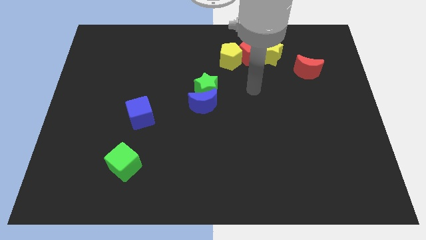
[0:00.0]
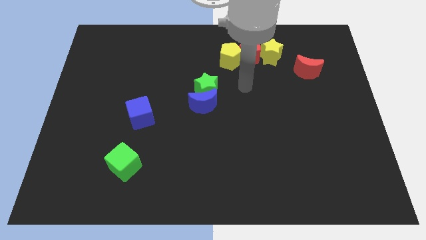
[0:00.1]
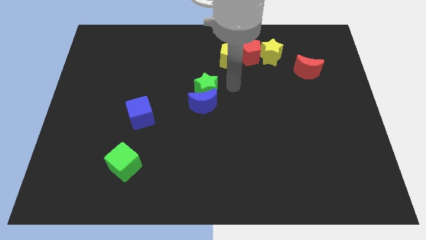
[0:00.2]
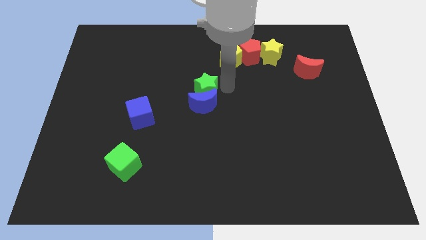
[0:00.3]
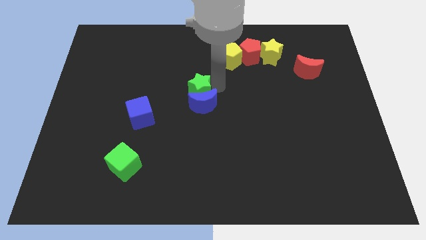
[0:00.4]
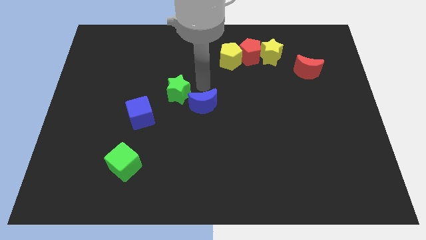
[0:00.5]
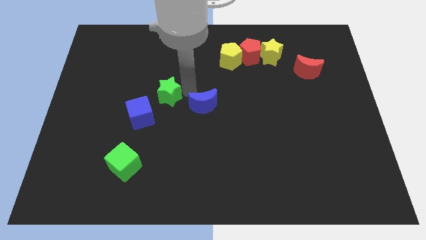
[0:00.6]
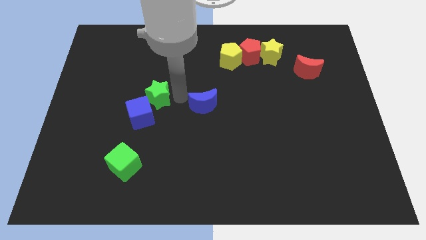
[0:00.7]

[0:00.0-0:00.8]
separate the blue moon from the green star

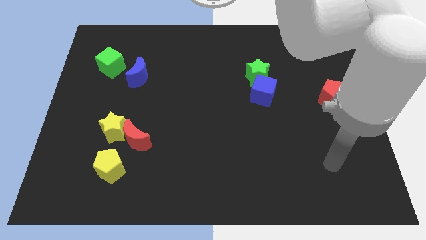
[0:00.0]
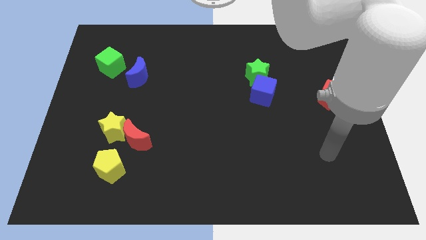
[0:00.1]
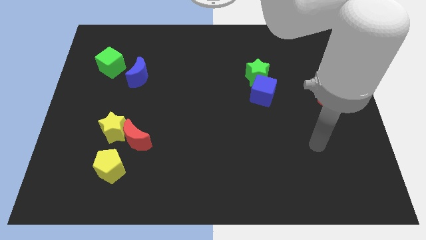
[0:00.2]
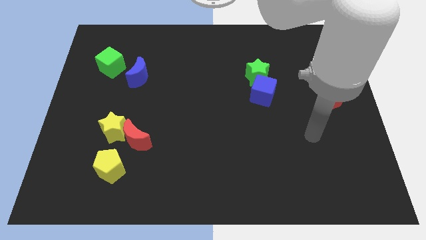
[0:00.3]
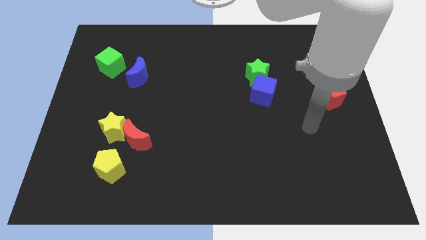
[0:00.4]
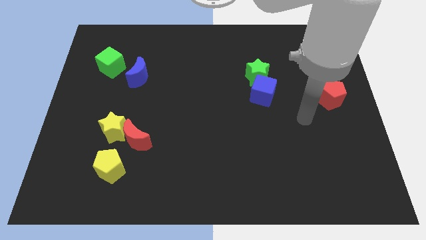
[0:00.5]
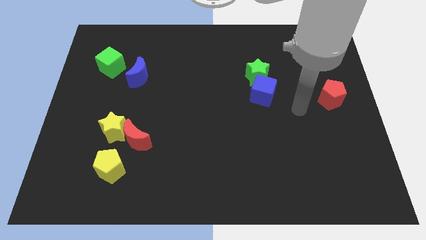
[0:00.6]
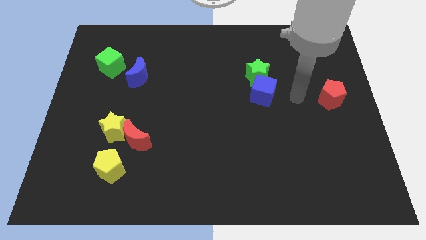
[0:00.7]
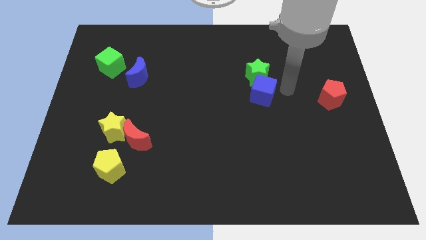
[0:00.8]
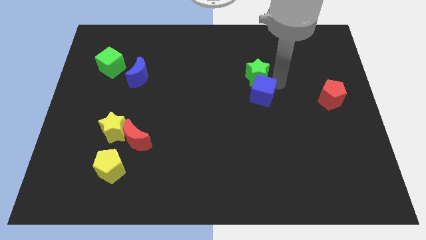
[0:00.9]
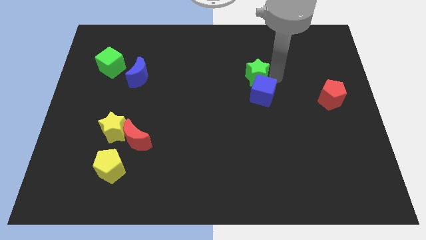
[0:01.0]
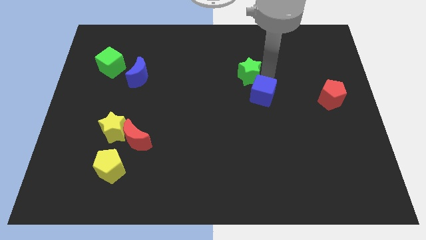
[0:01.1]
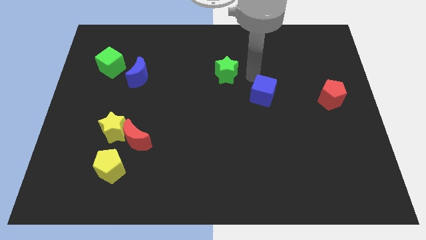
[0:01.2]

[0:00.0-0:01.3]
move the blue cube away from the green star

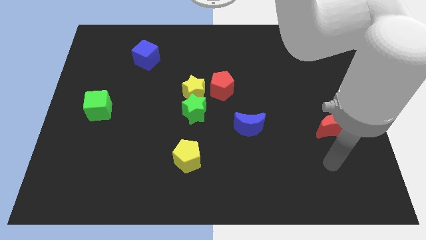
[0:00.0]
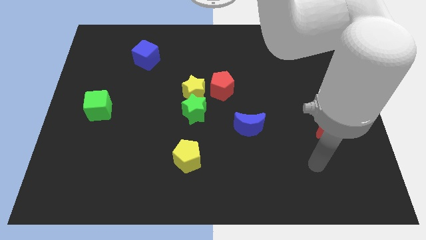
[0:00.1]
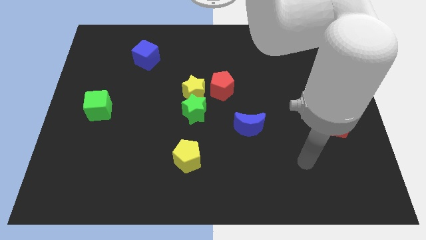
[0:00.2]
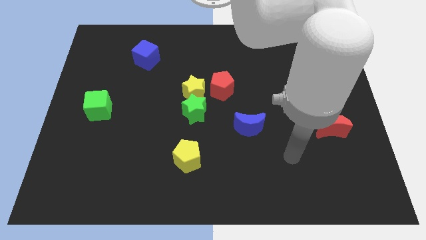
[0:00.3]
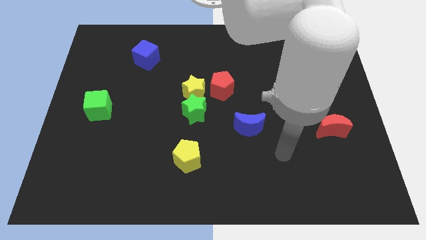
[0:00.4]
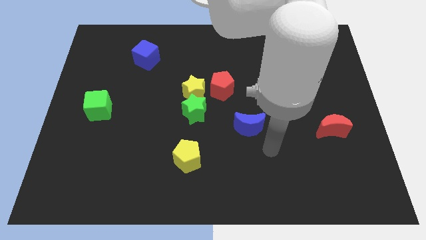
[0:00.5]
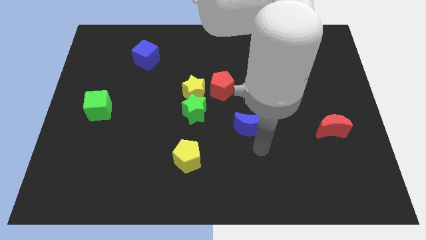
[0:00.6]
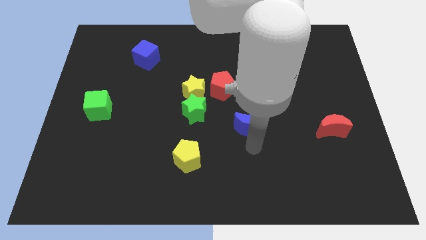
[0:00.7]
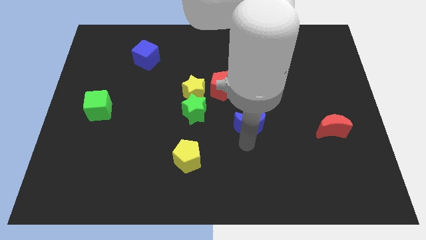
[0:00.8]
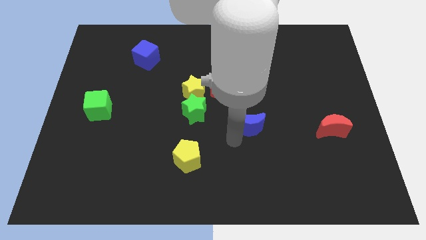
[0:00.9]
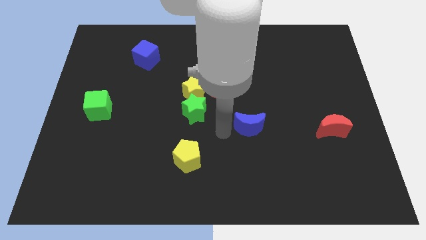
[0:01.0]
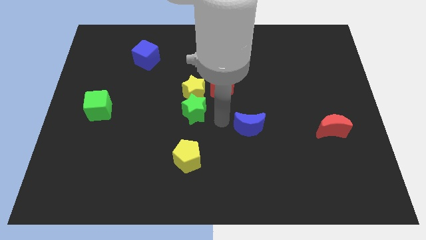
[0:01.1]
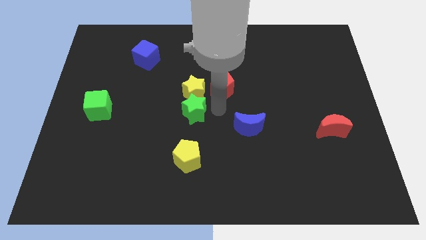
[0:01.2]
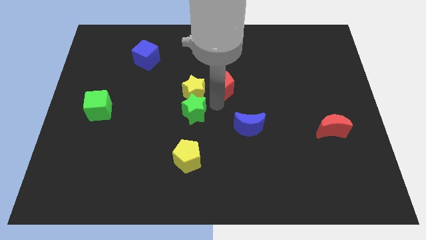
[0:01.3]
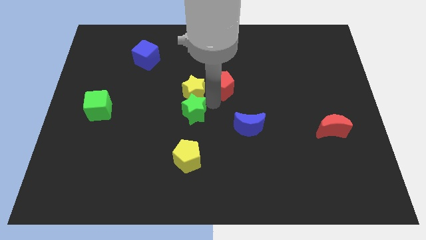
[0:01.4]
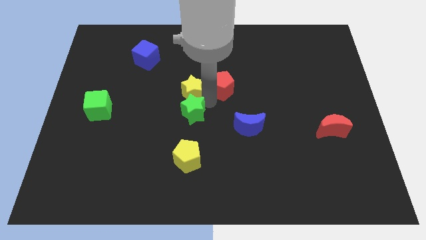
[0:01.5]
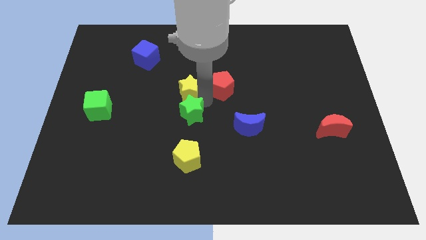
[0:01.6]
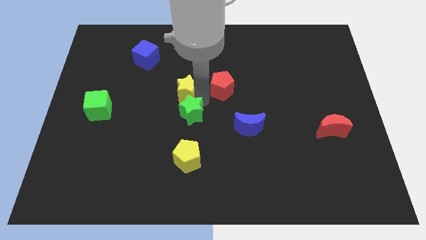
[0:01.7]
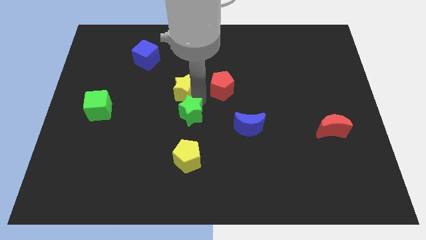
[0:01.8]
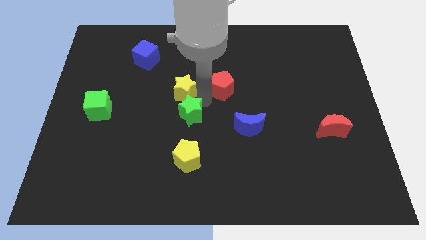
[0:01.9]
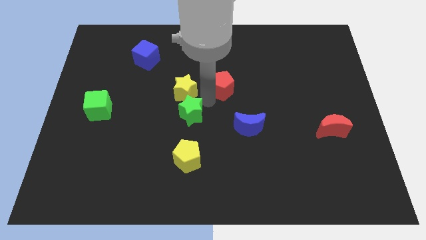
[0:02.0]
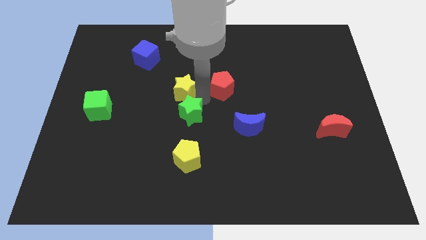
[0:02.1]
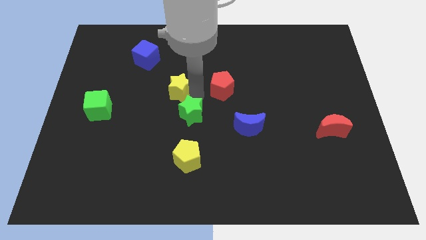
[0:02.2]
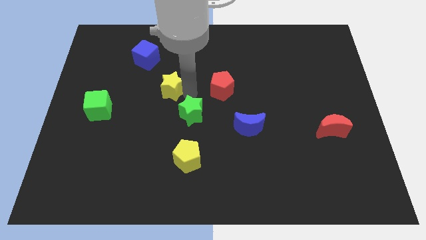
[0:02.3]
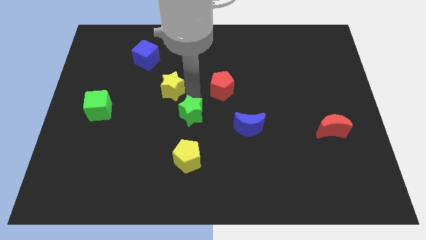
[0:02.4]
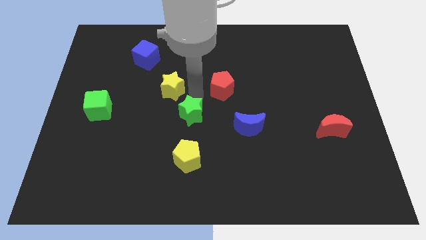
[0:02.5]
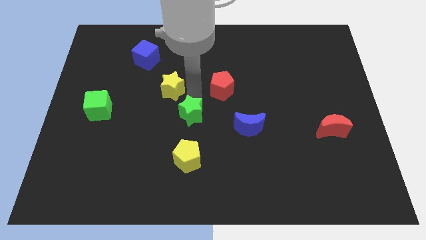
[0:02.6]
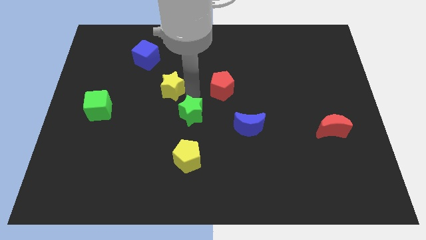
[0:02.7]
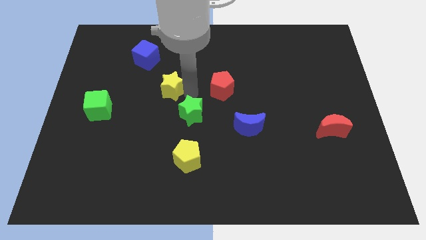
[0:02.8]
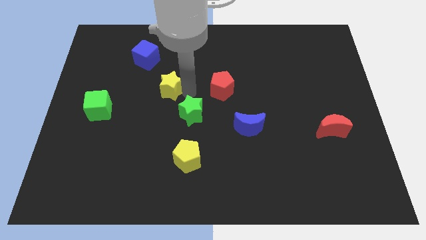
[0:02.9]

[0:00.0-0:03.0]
move the yellow star away from the green star and red pentagon

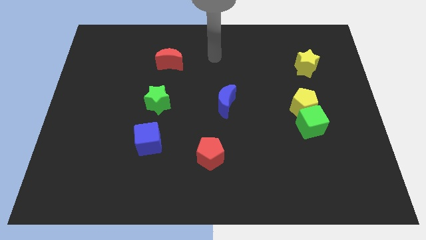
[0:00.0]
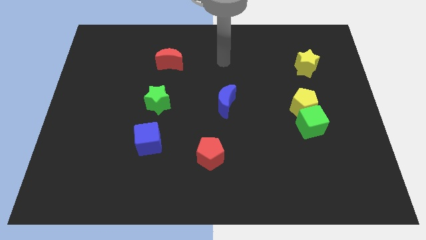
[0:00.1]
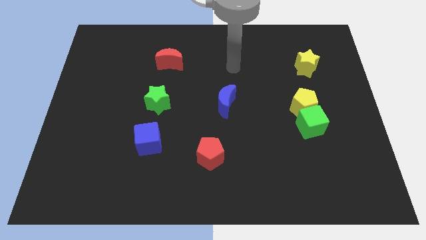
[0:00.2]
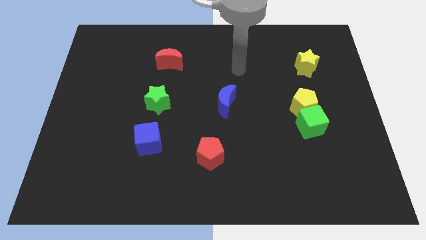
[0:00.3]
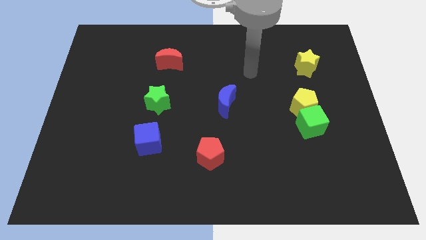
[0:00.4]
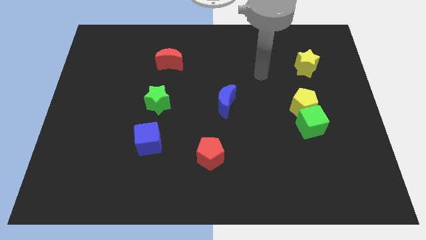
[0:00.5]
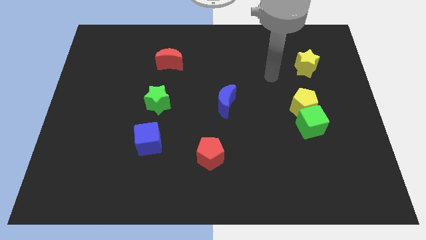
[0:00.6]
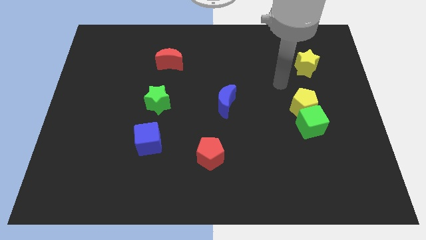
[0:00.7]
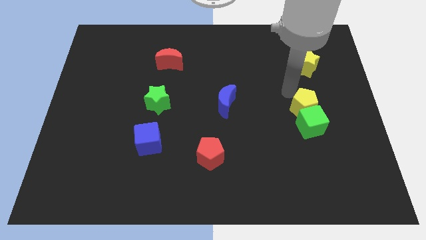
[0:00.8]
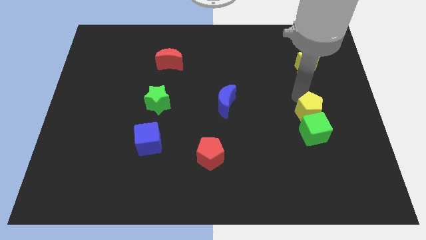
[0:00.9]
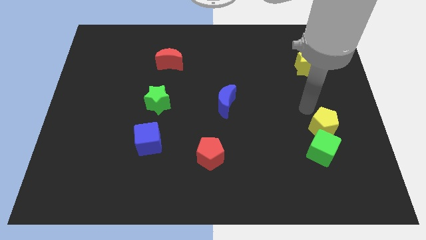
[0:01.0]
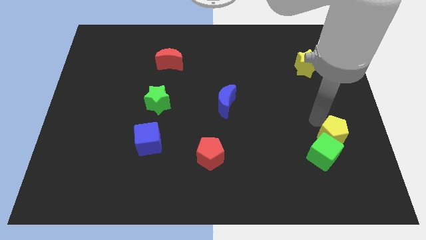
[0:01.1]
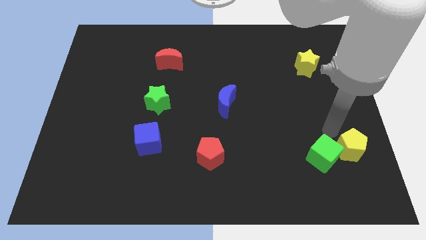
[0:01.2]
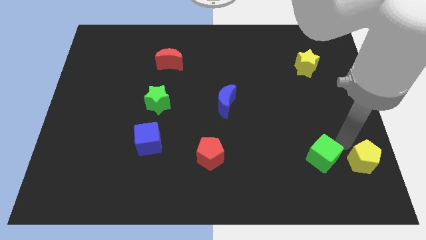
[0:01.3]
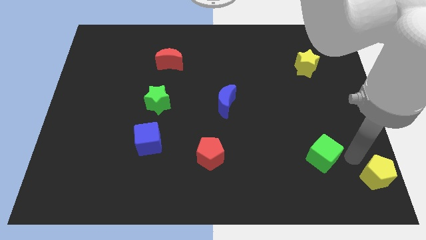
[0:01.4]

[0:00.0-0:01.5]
move the green cube away from the yellow pentagon

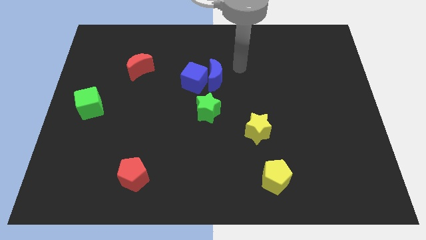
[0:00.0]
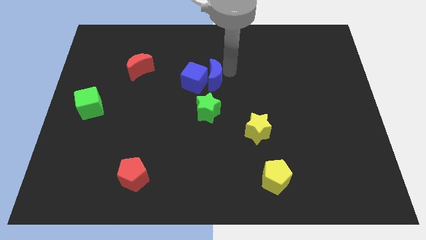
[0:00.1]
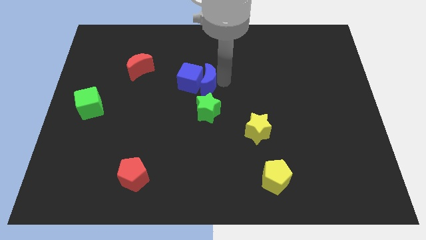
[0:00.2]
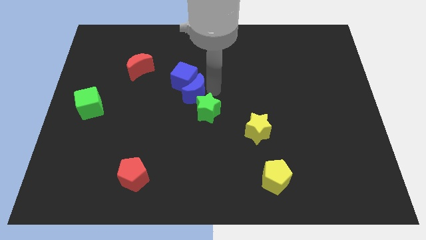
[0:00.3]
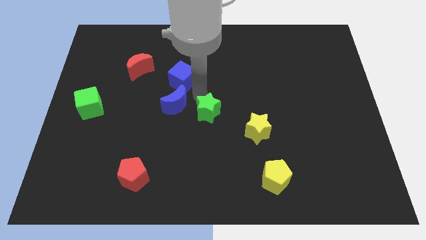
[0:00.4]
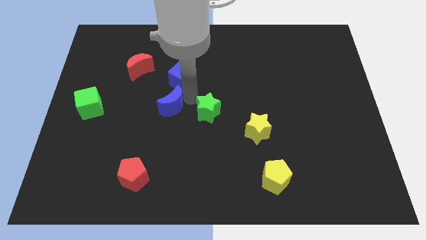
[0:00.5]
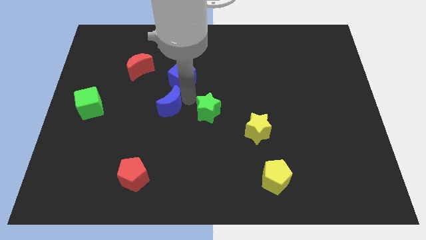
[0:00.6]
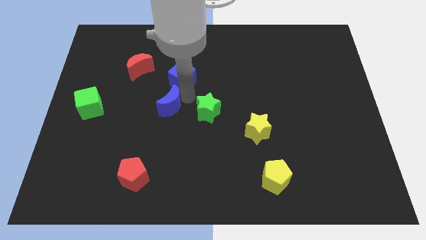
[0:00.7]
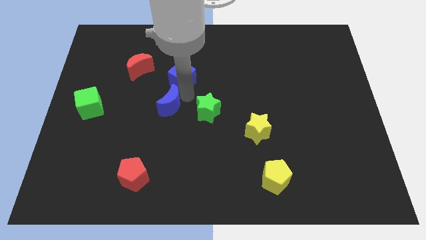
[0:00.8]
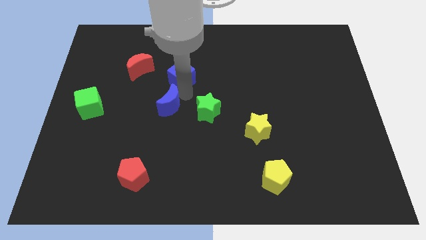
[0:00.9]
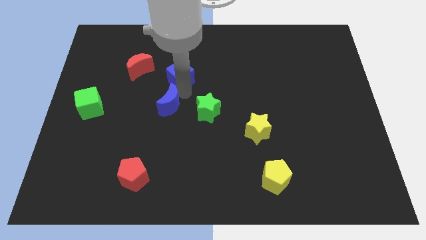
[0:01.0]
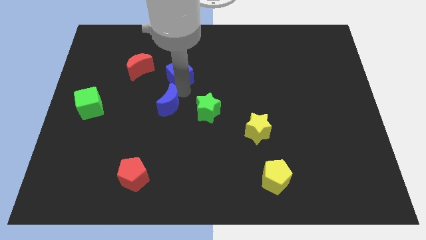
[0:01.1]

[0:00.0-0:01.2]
pull the blue cube apart from the blue moon and green star

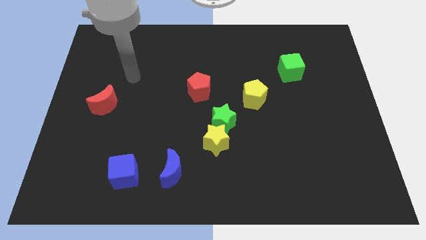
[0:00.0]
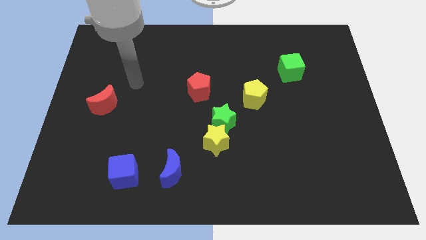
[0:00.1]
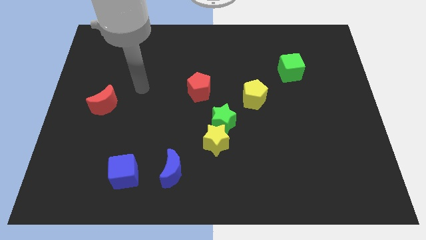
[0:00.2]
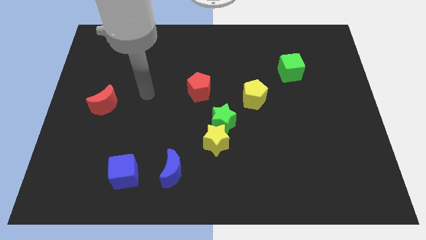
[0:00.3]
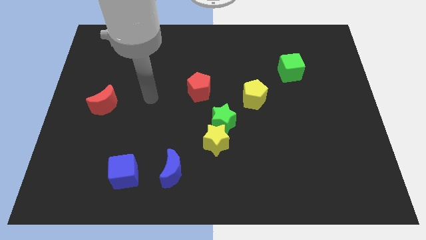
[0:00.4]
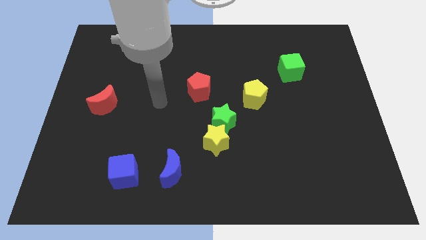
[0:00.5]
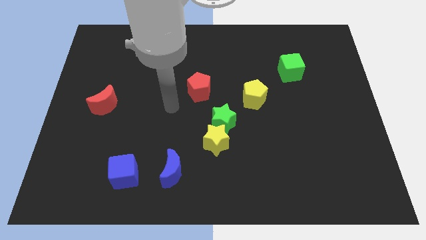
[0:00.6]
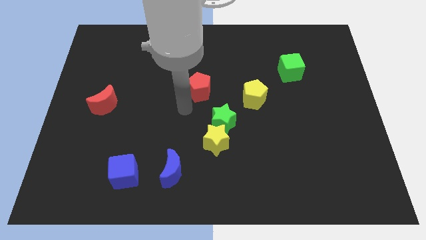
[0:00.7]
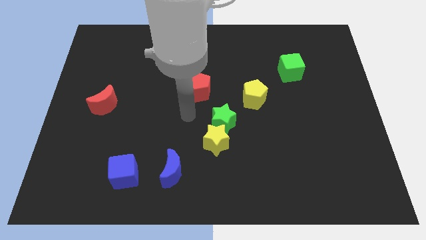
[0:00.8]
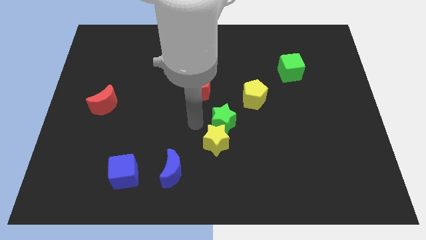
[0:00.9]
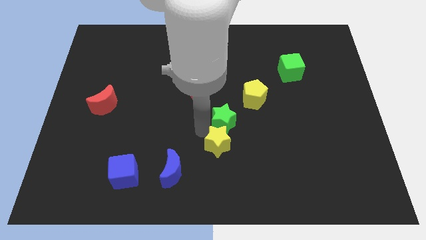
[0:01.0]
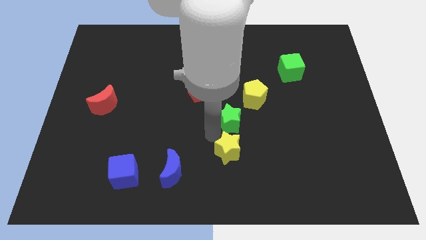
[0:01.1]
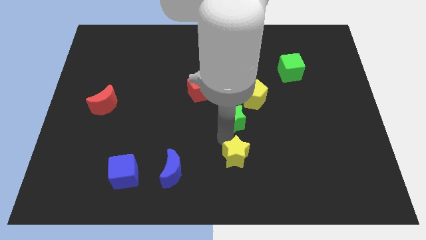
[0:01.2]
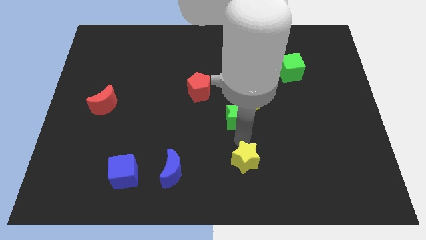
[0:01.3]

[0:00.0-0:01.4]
move the green star away from the yellow star
